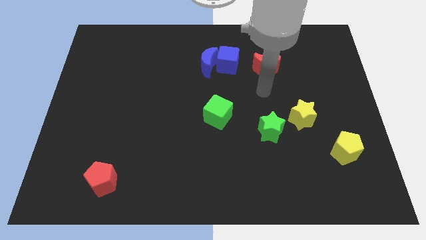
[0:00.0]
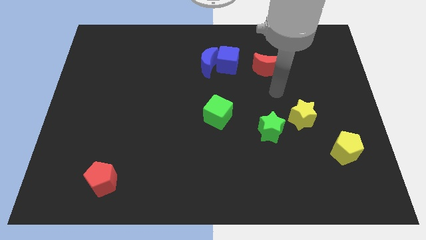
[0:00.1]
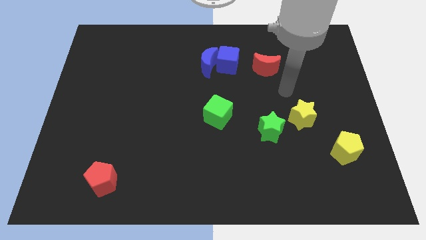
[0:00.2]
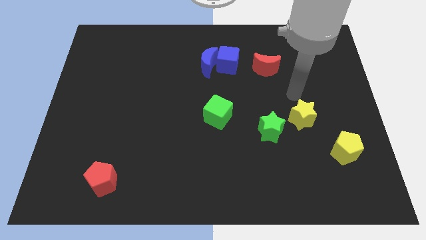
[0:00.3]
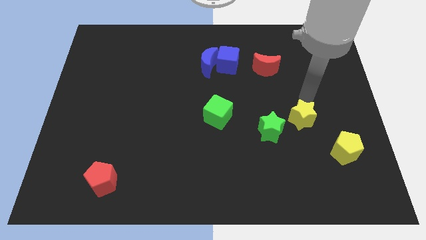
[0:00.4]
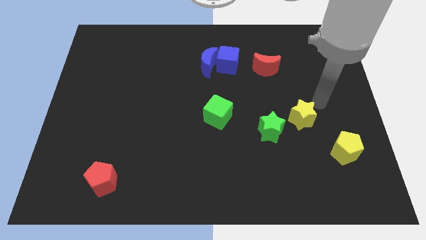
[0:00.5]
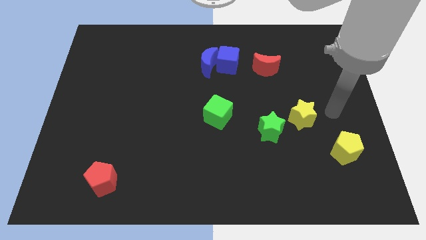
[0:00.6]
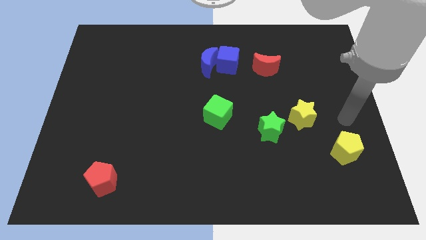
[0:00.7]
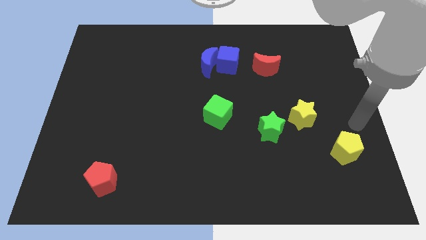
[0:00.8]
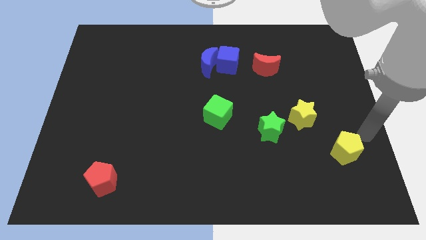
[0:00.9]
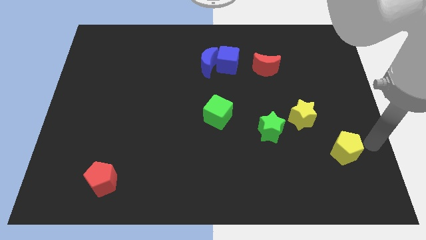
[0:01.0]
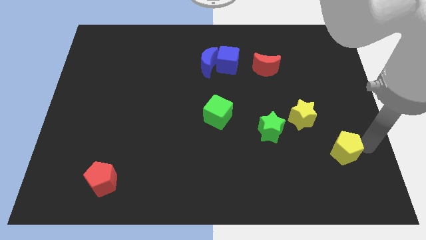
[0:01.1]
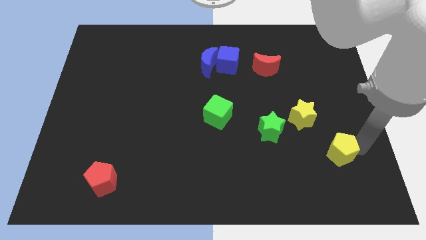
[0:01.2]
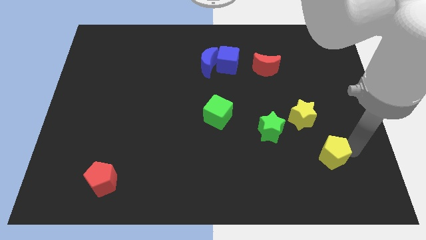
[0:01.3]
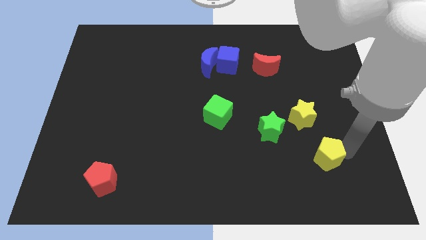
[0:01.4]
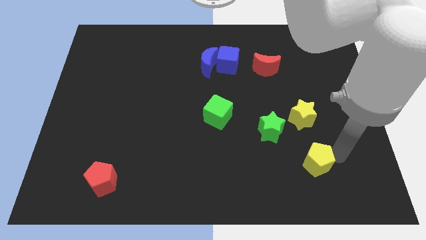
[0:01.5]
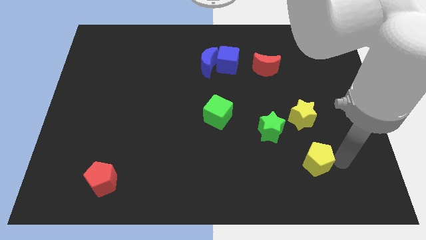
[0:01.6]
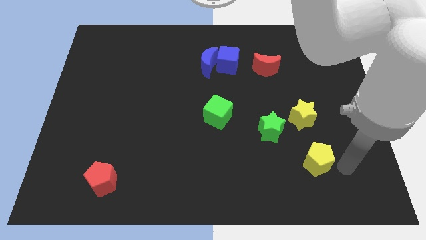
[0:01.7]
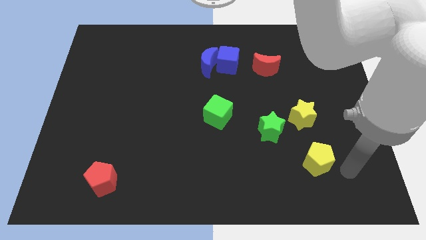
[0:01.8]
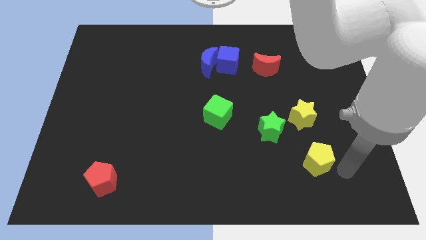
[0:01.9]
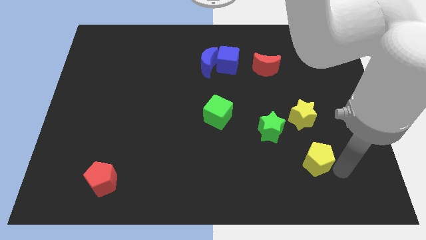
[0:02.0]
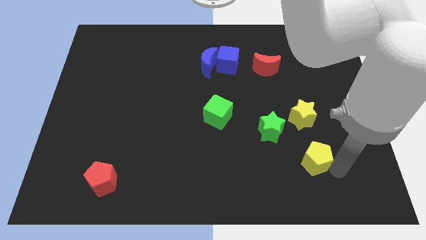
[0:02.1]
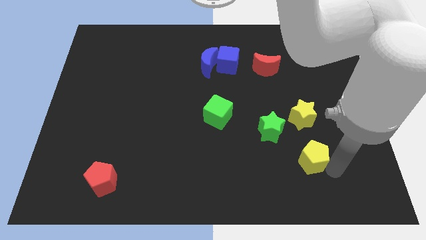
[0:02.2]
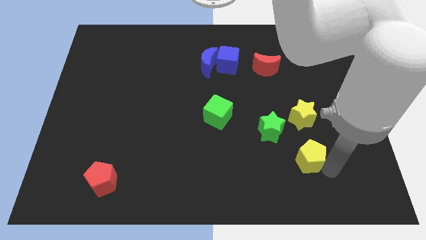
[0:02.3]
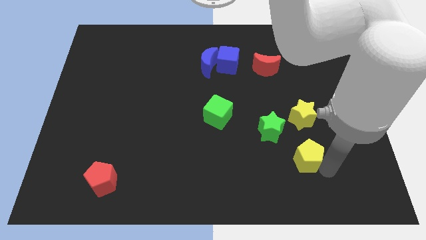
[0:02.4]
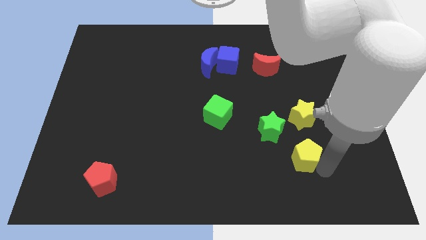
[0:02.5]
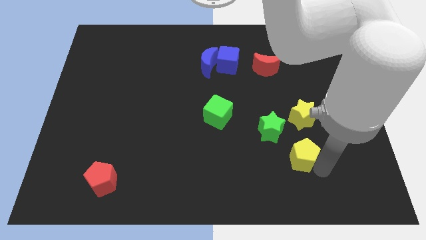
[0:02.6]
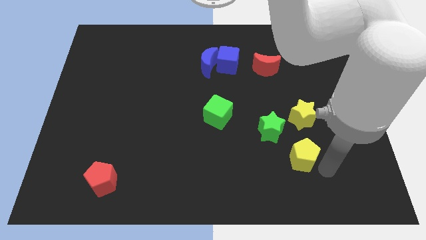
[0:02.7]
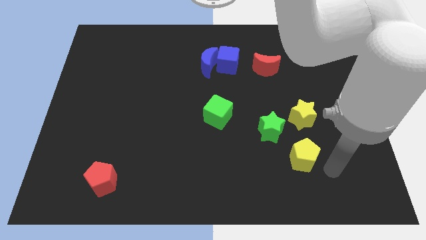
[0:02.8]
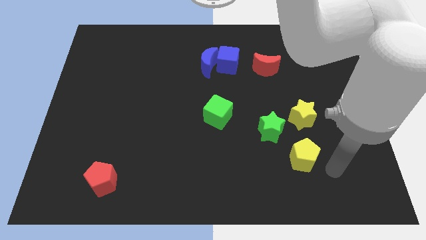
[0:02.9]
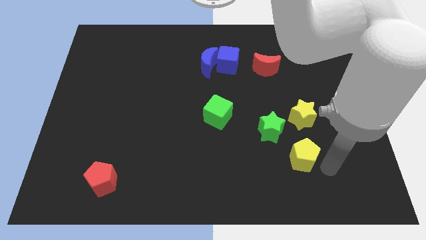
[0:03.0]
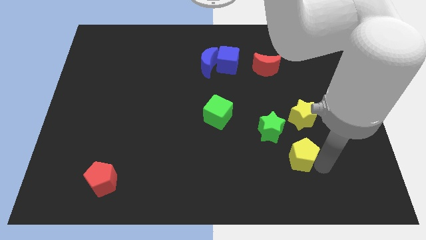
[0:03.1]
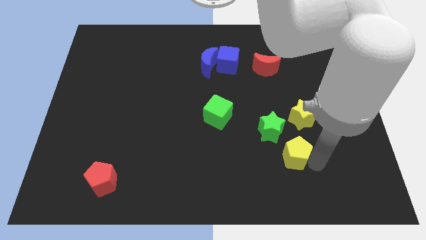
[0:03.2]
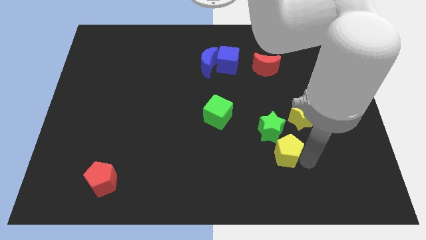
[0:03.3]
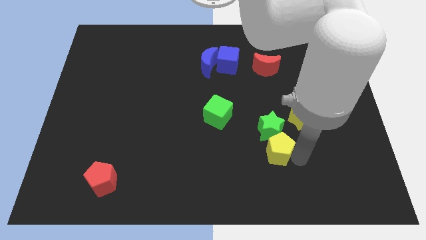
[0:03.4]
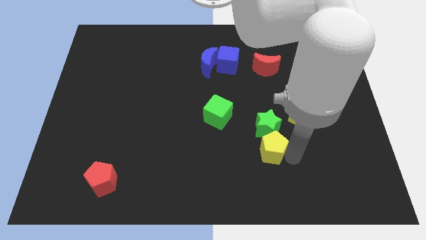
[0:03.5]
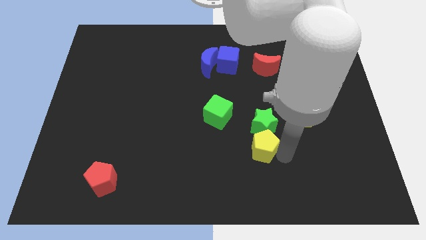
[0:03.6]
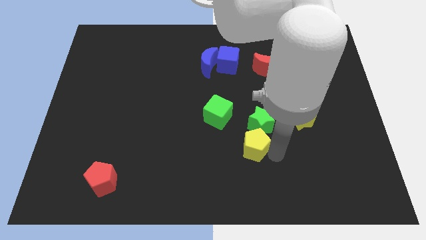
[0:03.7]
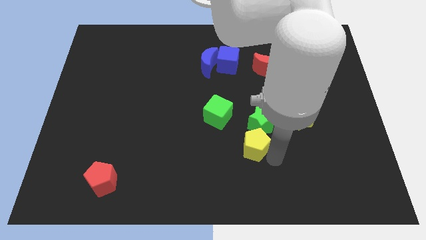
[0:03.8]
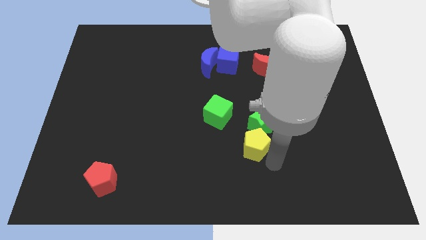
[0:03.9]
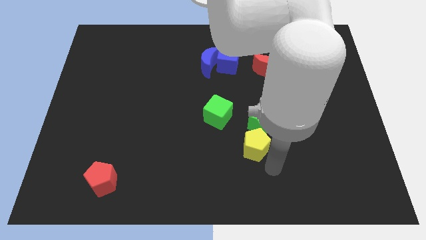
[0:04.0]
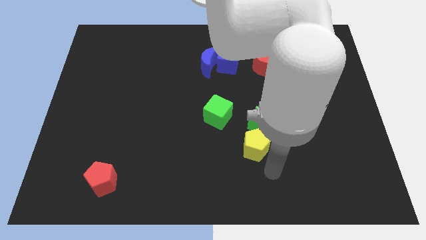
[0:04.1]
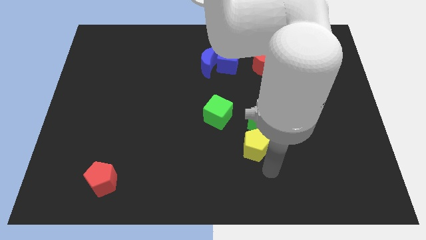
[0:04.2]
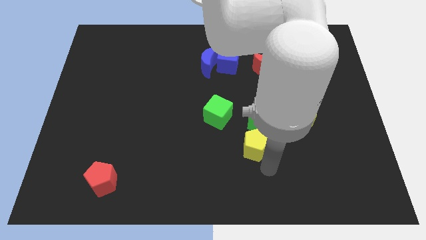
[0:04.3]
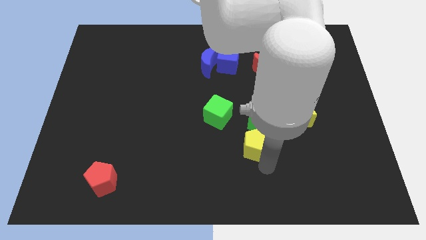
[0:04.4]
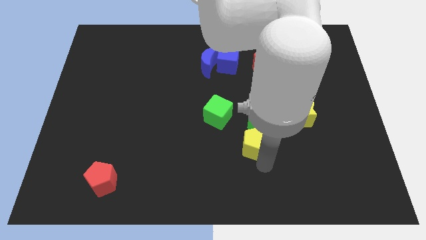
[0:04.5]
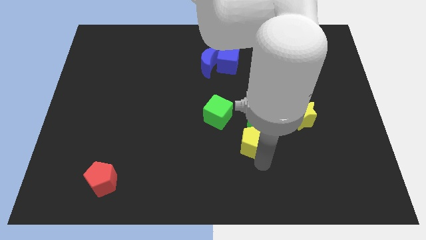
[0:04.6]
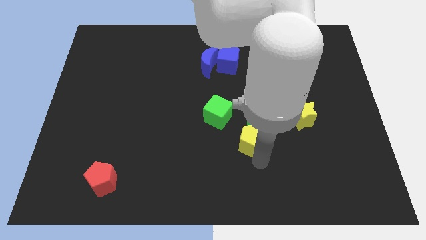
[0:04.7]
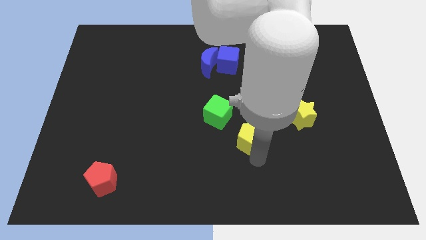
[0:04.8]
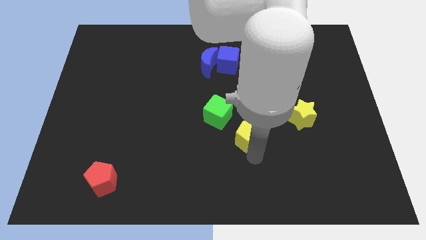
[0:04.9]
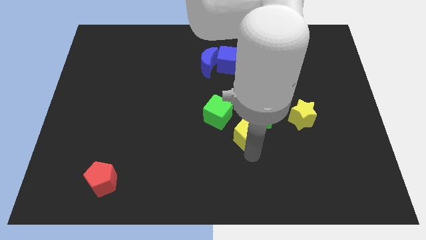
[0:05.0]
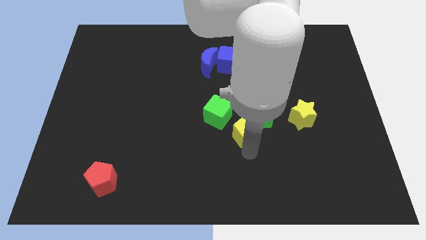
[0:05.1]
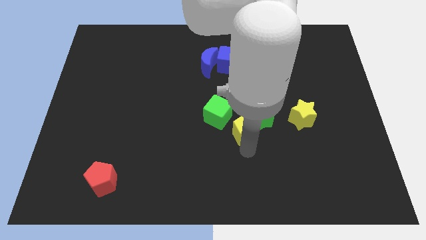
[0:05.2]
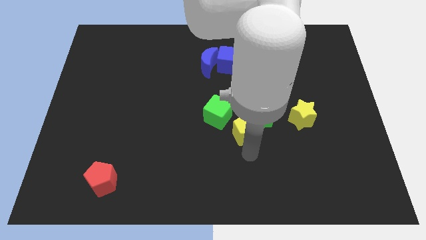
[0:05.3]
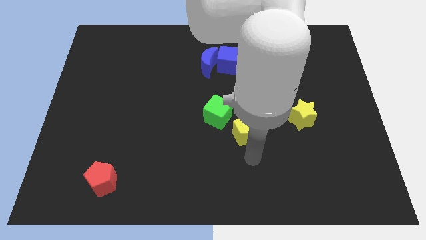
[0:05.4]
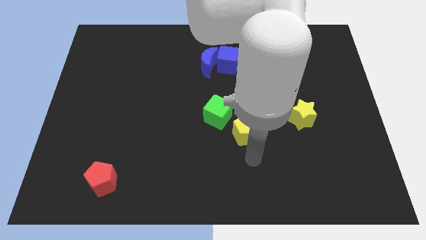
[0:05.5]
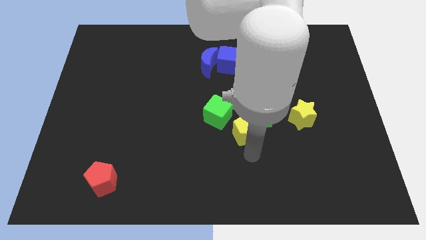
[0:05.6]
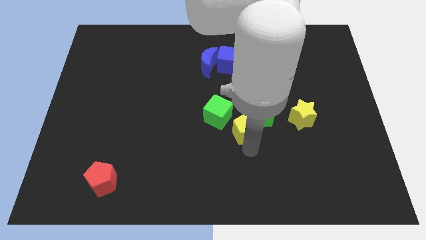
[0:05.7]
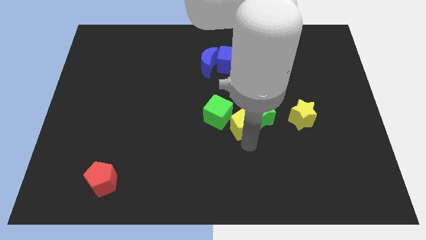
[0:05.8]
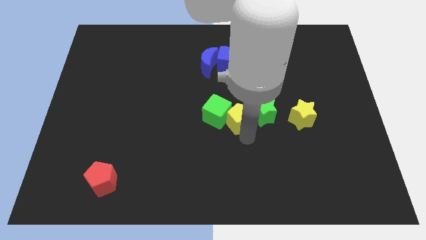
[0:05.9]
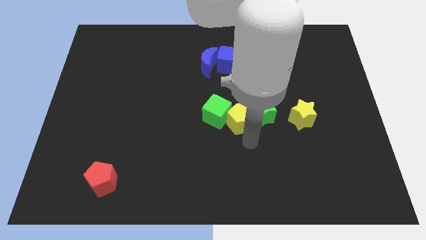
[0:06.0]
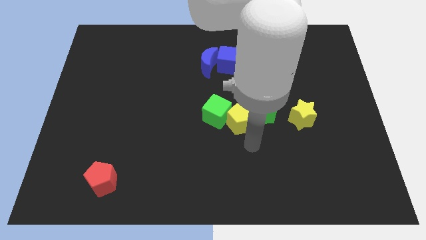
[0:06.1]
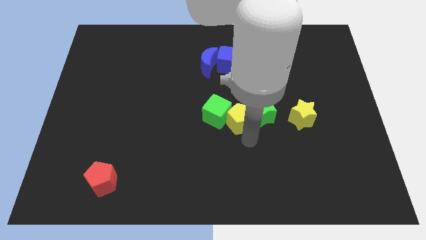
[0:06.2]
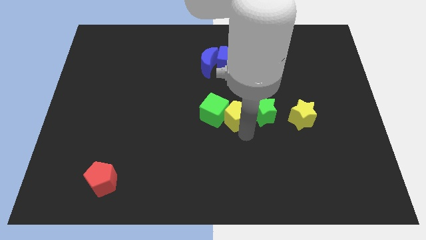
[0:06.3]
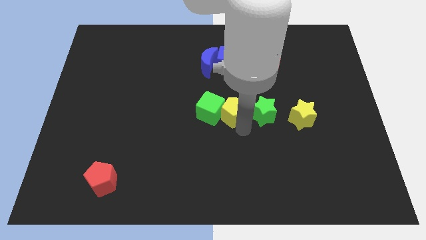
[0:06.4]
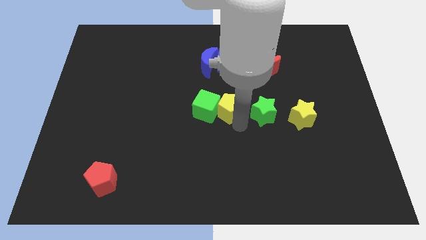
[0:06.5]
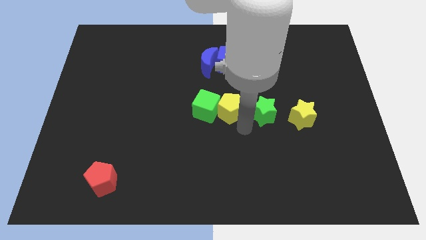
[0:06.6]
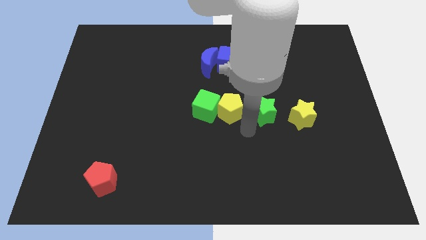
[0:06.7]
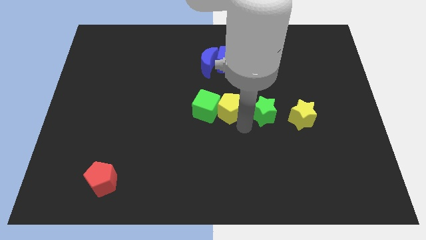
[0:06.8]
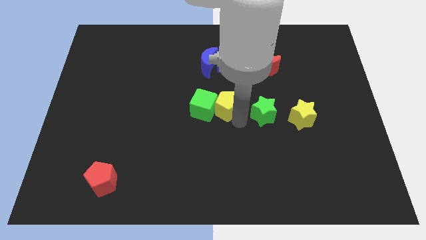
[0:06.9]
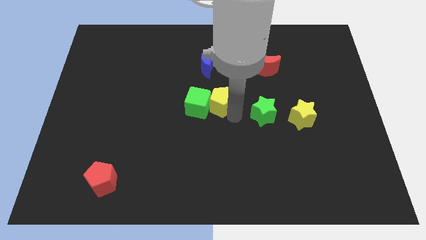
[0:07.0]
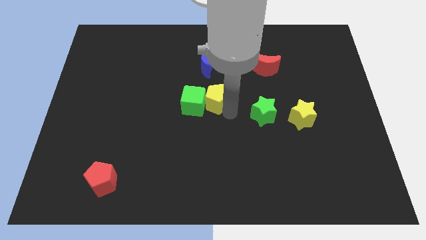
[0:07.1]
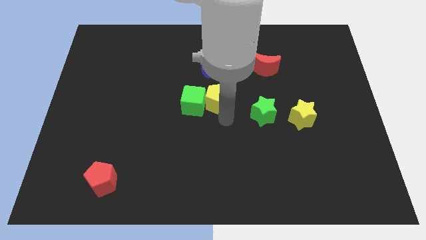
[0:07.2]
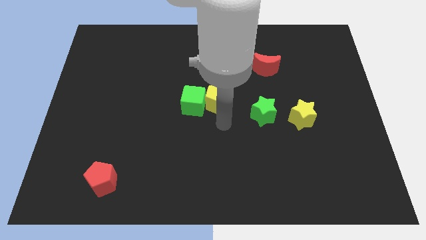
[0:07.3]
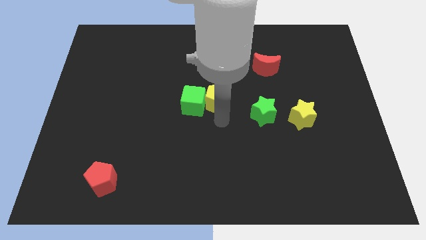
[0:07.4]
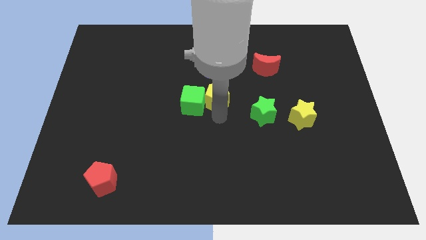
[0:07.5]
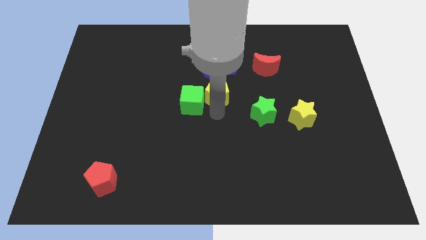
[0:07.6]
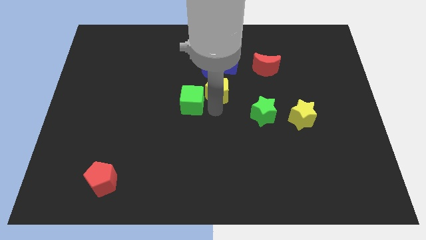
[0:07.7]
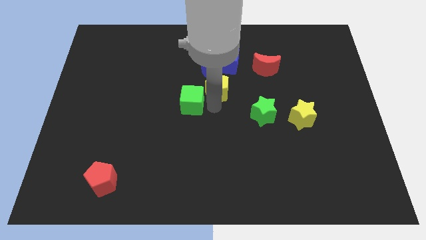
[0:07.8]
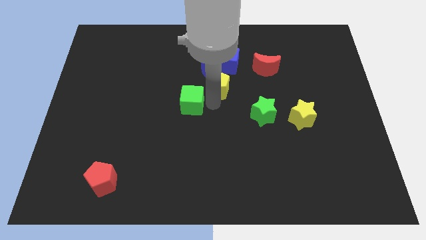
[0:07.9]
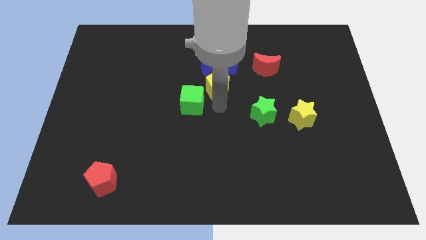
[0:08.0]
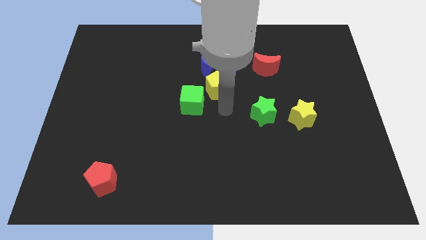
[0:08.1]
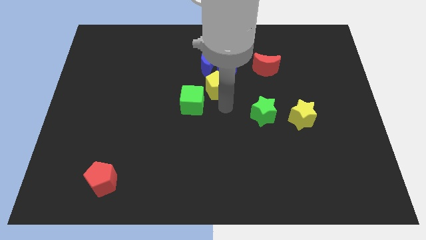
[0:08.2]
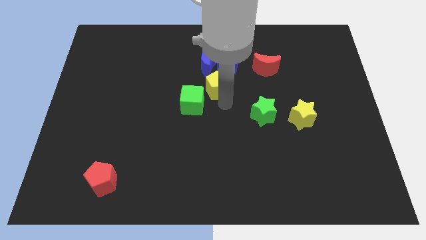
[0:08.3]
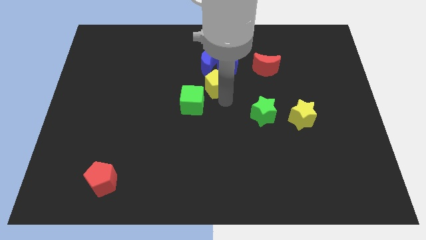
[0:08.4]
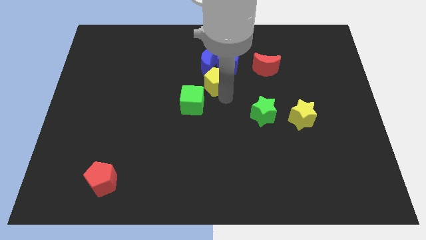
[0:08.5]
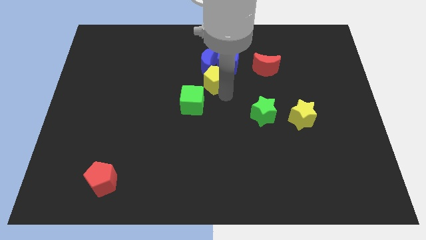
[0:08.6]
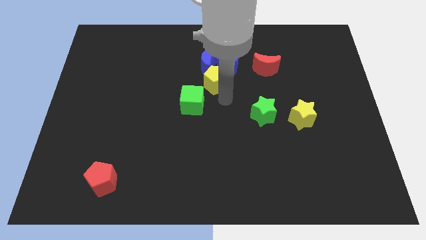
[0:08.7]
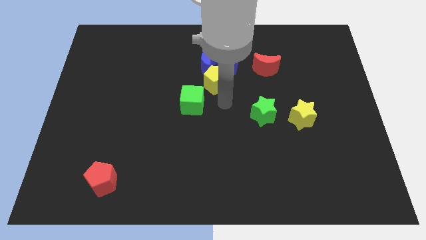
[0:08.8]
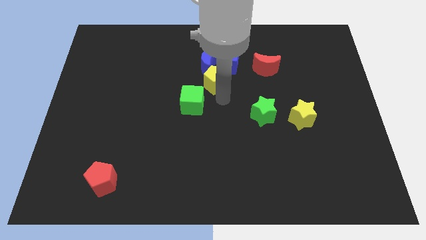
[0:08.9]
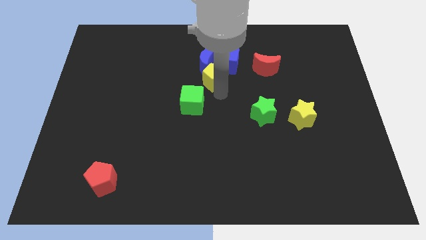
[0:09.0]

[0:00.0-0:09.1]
push the yellow pentagon next to the blue moon
